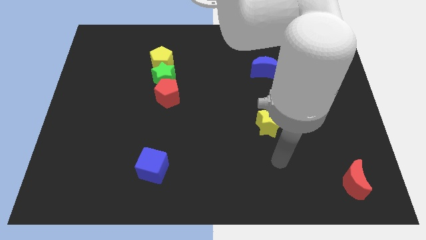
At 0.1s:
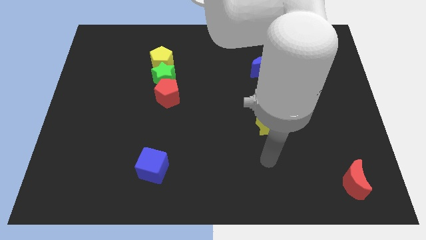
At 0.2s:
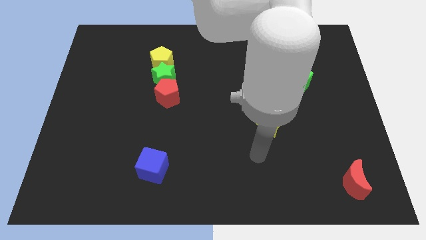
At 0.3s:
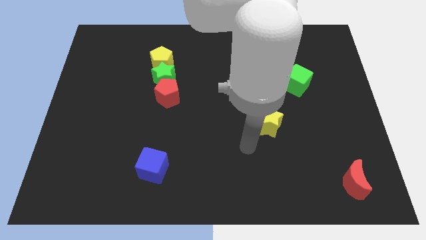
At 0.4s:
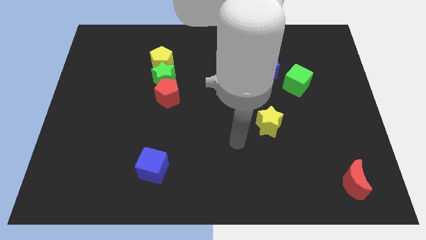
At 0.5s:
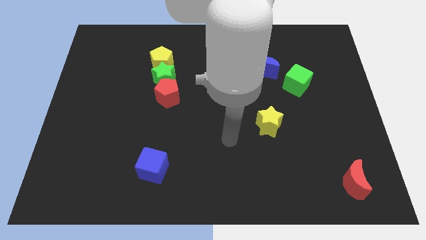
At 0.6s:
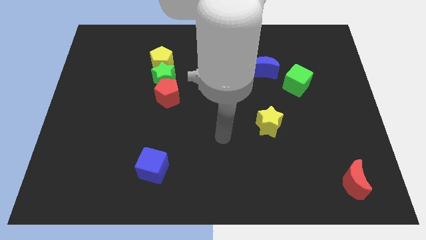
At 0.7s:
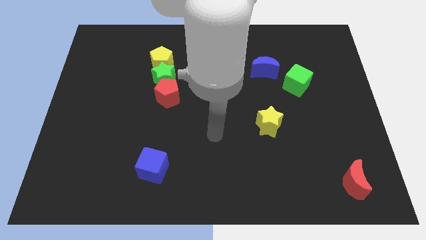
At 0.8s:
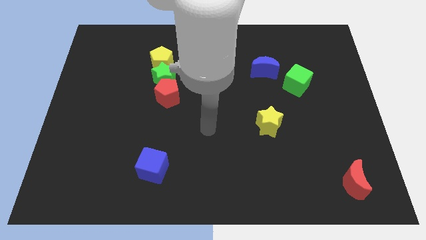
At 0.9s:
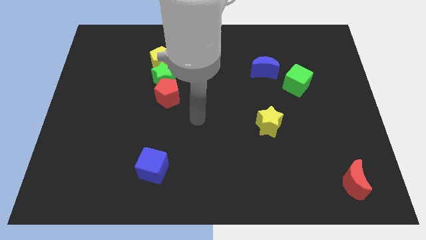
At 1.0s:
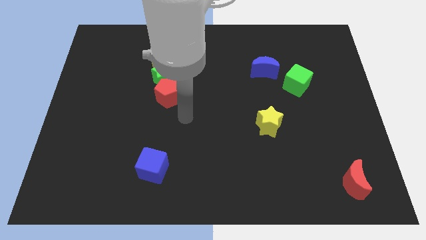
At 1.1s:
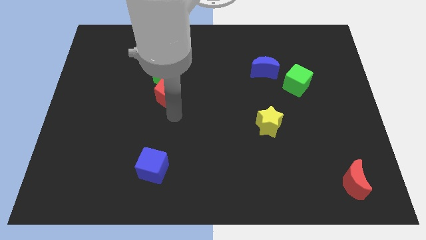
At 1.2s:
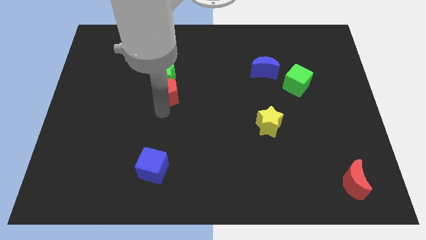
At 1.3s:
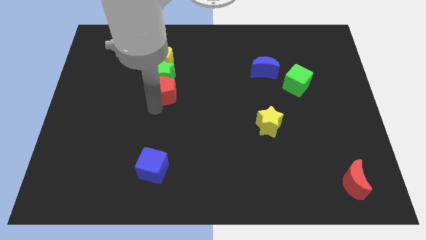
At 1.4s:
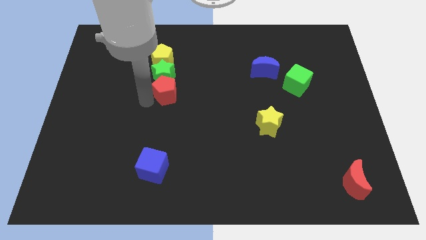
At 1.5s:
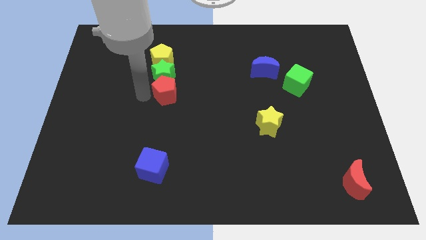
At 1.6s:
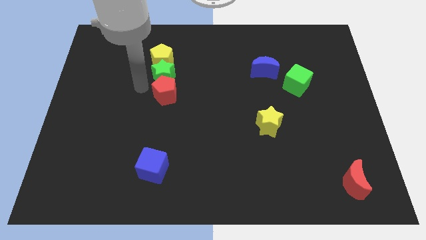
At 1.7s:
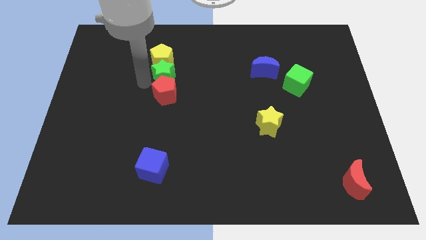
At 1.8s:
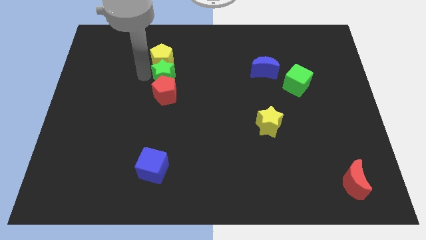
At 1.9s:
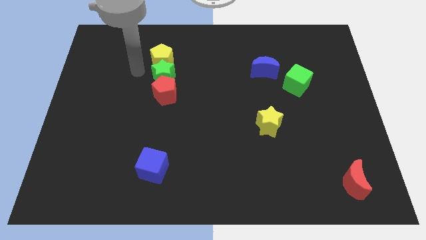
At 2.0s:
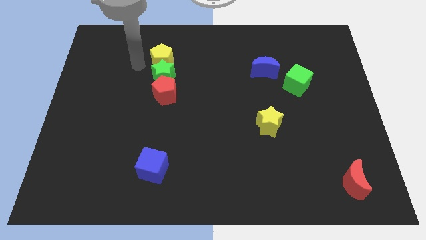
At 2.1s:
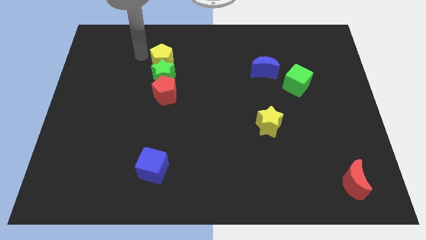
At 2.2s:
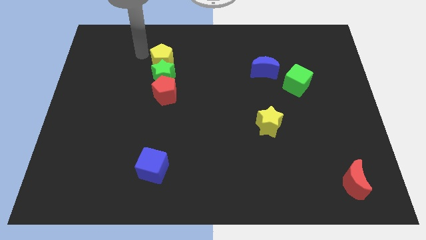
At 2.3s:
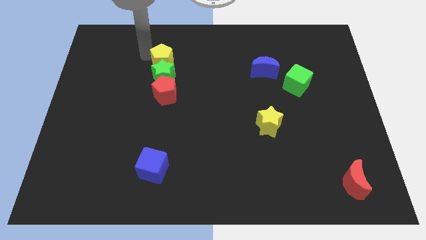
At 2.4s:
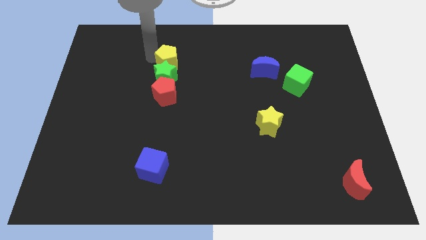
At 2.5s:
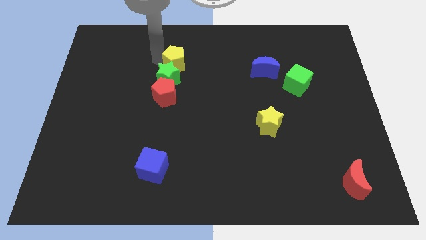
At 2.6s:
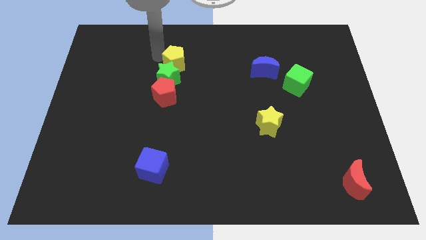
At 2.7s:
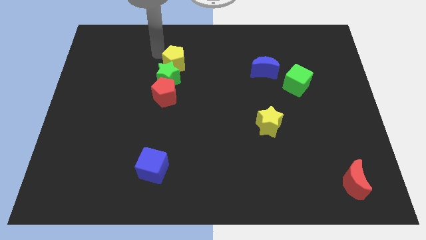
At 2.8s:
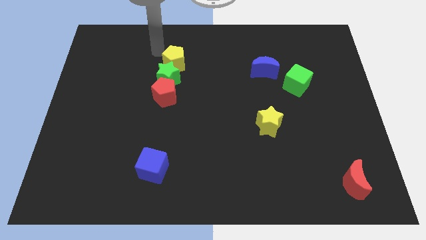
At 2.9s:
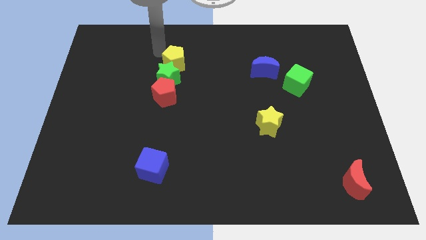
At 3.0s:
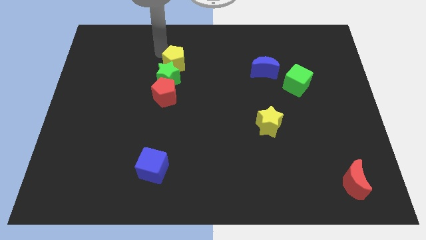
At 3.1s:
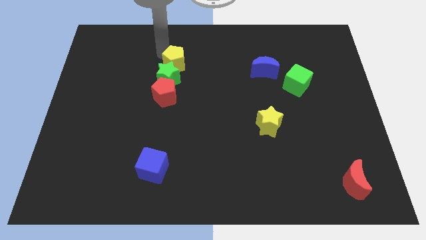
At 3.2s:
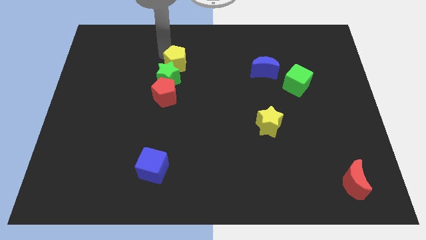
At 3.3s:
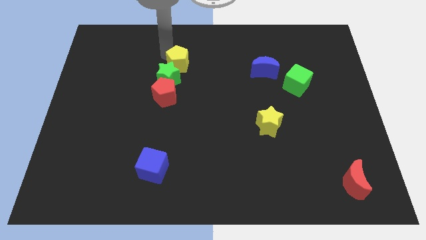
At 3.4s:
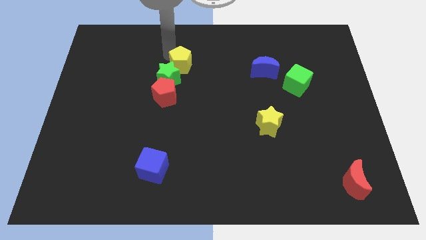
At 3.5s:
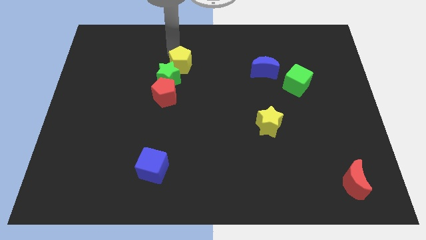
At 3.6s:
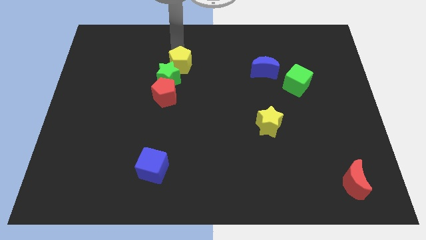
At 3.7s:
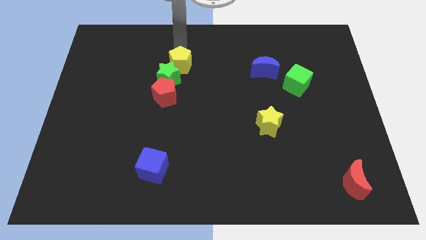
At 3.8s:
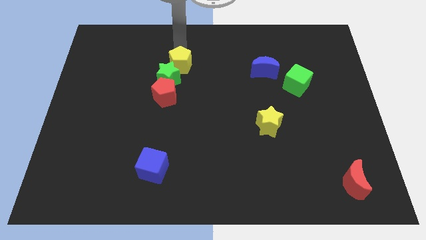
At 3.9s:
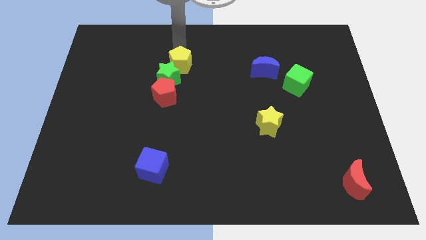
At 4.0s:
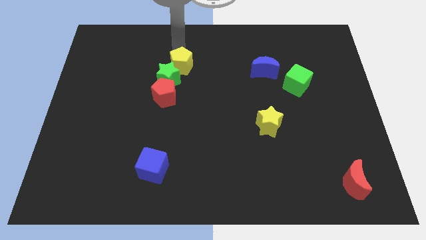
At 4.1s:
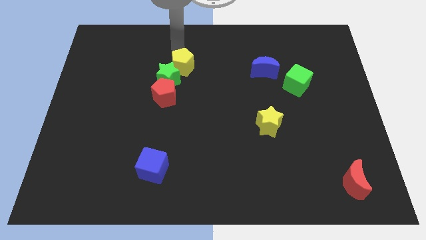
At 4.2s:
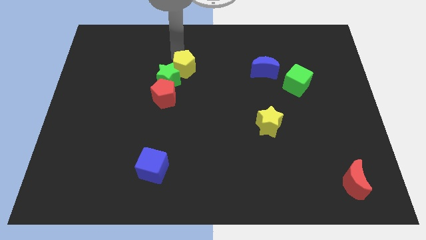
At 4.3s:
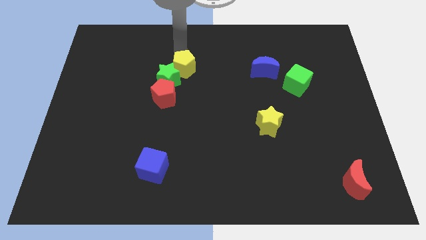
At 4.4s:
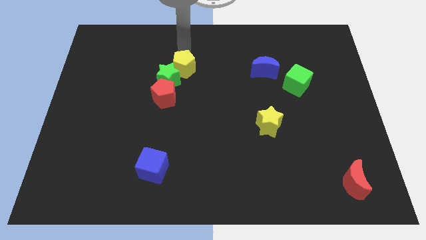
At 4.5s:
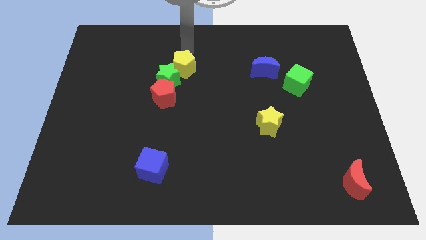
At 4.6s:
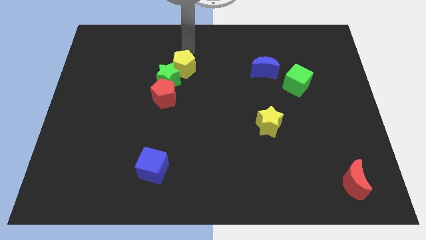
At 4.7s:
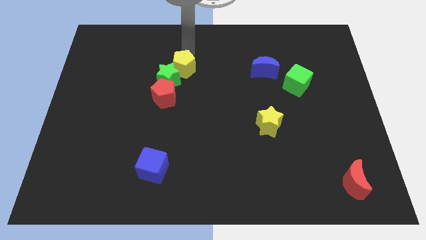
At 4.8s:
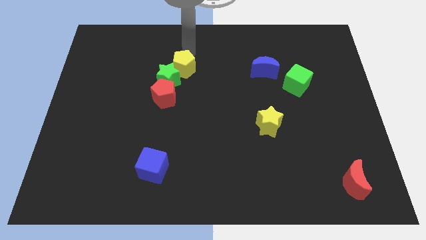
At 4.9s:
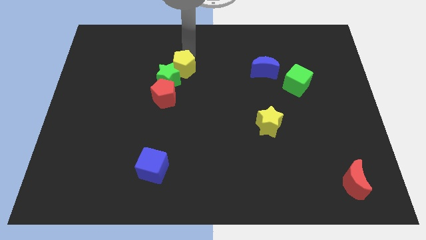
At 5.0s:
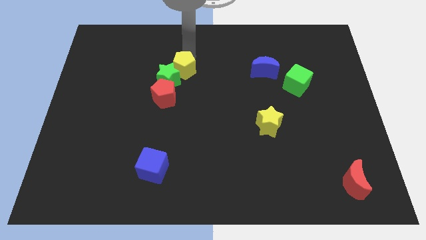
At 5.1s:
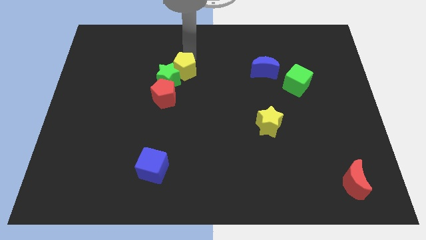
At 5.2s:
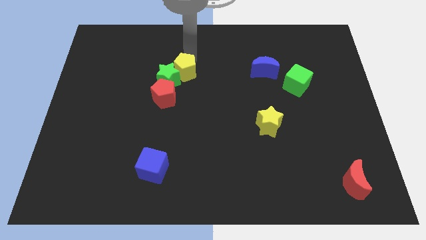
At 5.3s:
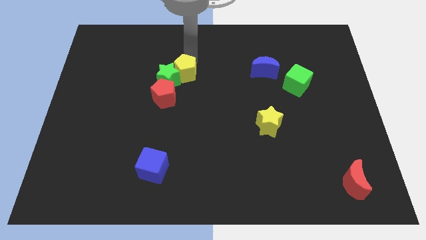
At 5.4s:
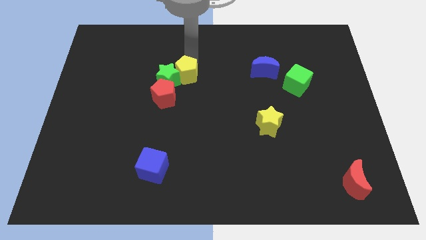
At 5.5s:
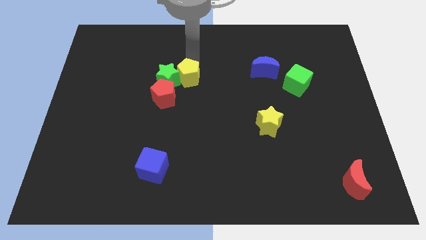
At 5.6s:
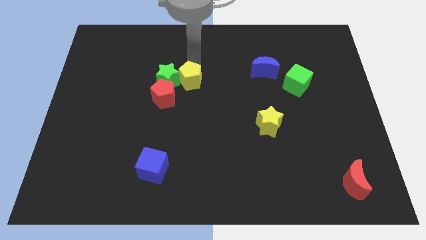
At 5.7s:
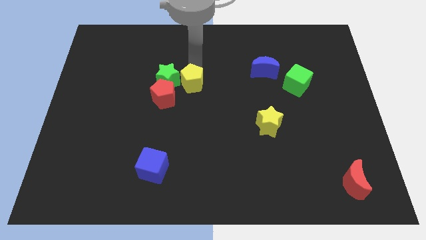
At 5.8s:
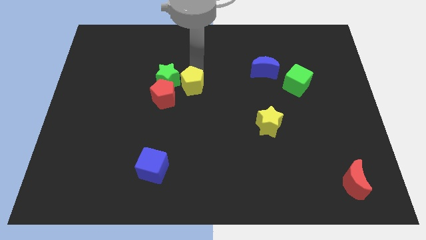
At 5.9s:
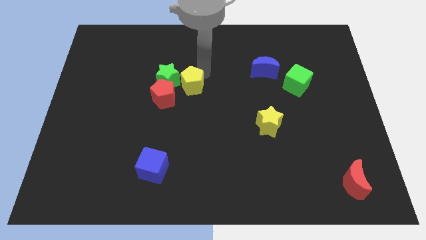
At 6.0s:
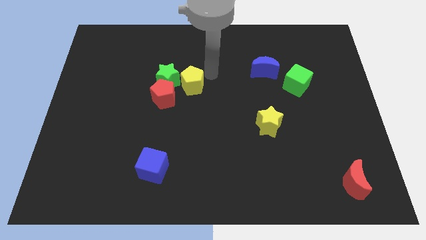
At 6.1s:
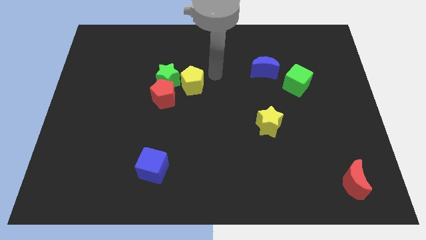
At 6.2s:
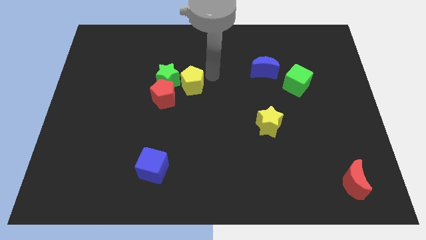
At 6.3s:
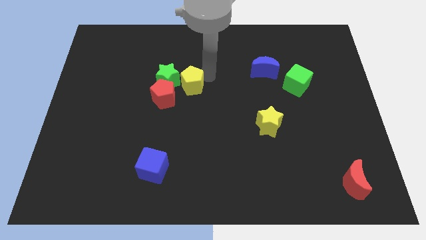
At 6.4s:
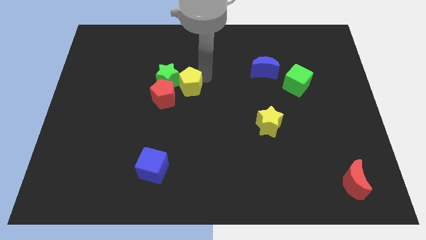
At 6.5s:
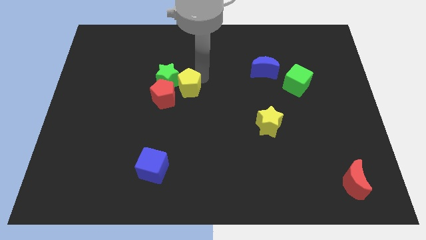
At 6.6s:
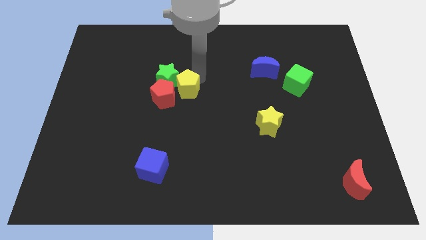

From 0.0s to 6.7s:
put the yellow pentagon to the red pentagon

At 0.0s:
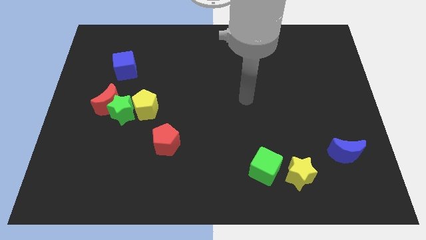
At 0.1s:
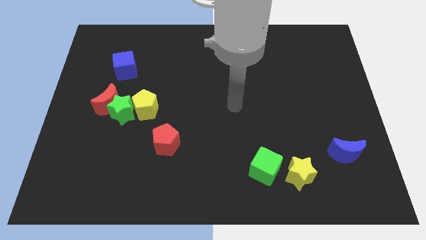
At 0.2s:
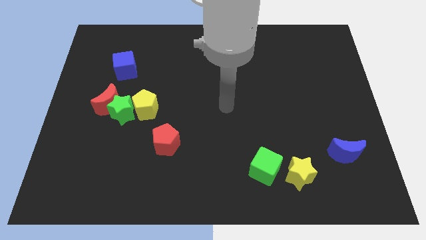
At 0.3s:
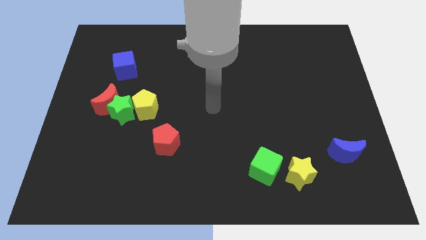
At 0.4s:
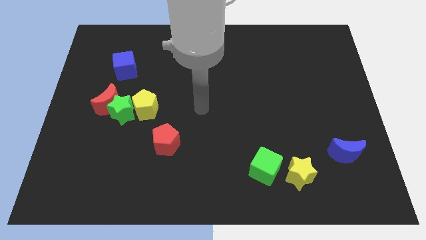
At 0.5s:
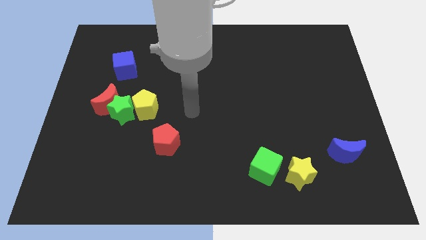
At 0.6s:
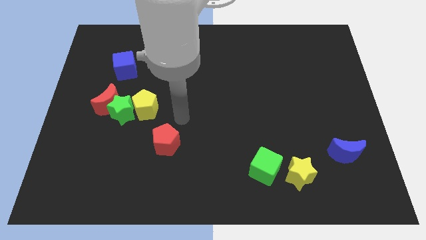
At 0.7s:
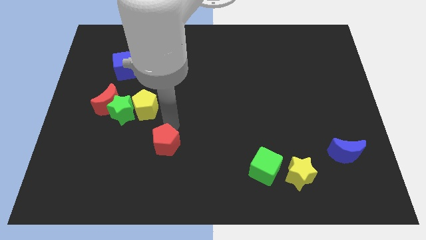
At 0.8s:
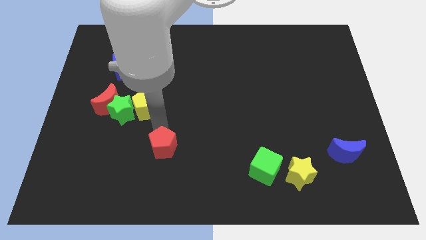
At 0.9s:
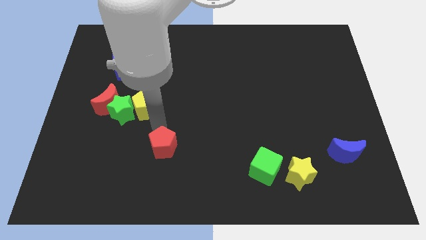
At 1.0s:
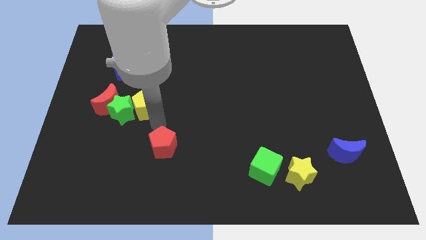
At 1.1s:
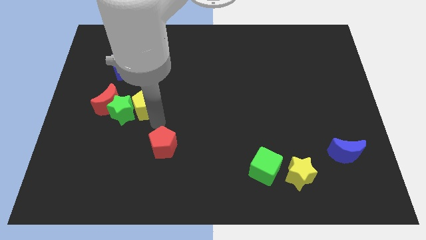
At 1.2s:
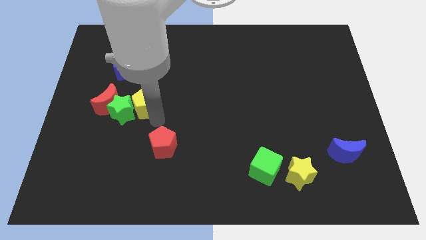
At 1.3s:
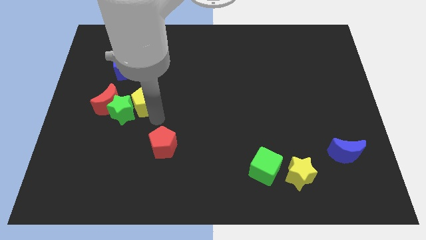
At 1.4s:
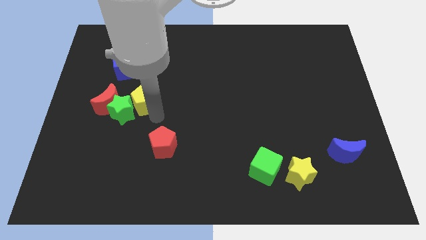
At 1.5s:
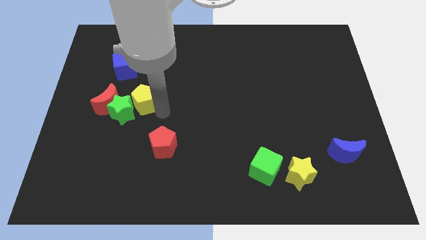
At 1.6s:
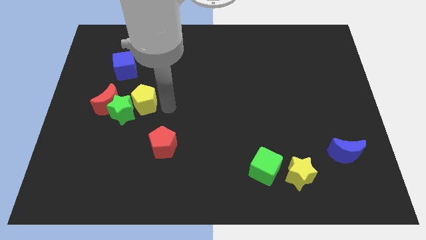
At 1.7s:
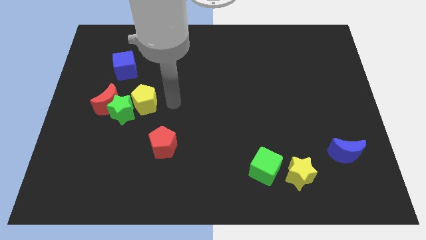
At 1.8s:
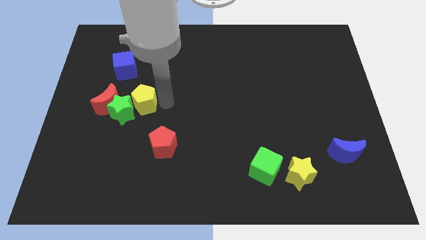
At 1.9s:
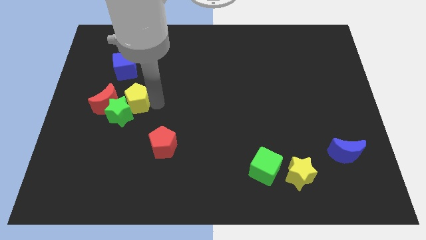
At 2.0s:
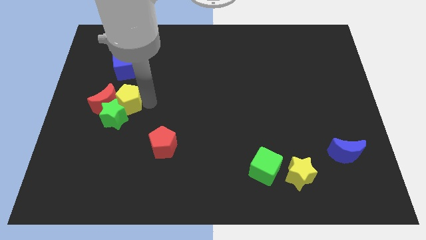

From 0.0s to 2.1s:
slide the yellow pentagon to the red moon
